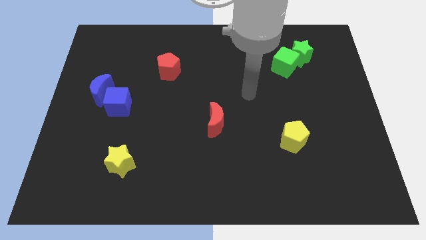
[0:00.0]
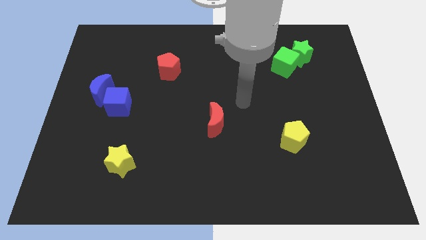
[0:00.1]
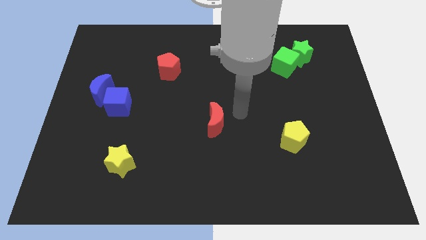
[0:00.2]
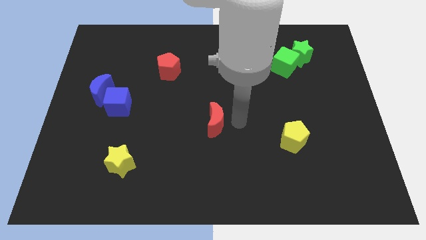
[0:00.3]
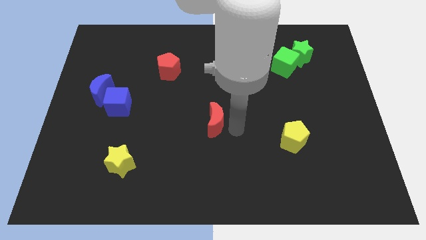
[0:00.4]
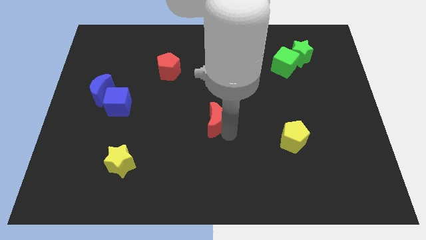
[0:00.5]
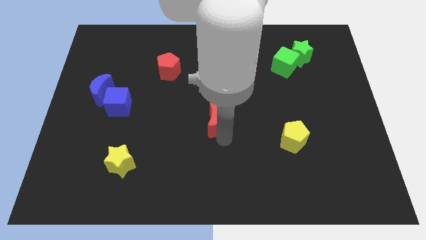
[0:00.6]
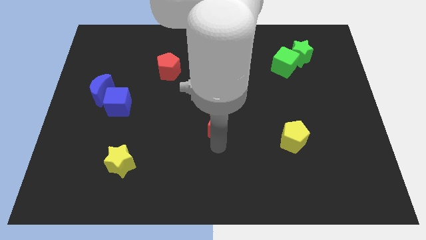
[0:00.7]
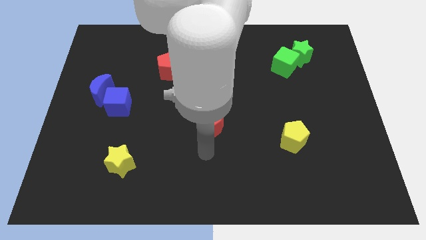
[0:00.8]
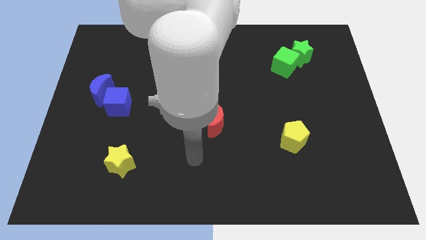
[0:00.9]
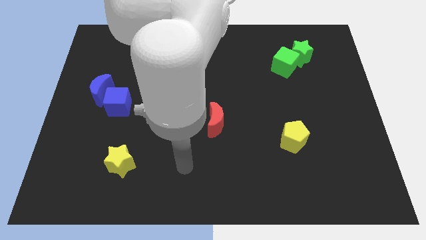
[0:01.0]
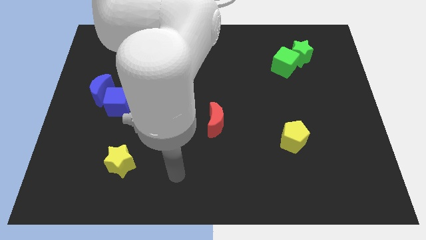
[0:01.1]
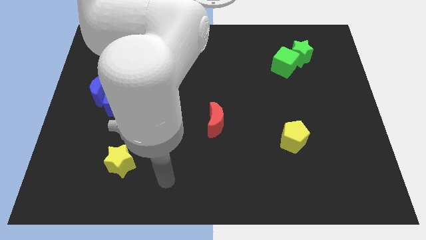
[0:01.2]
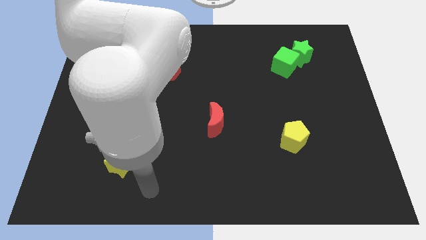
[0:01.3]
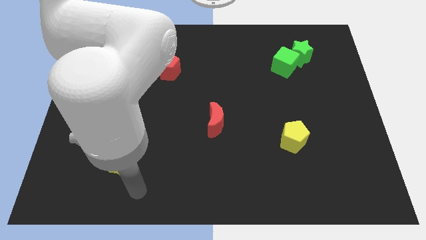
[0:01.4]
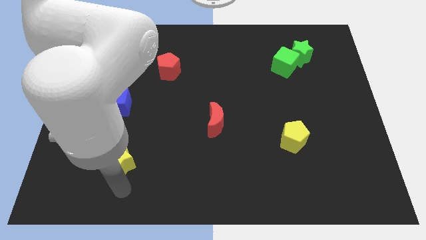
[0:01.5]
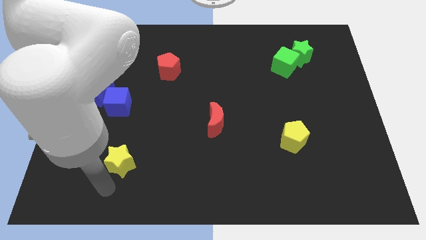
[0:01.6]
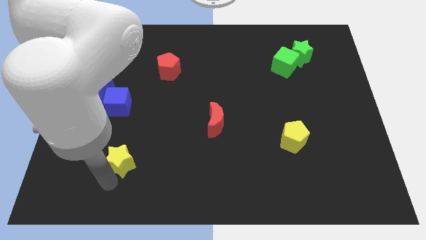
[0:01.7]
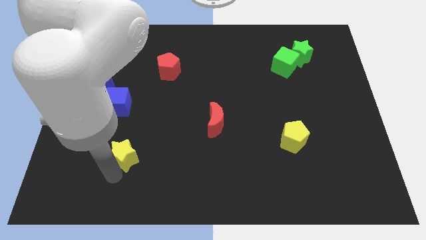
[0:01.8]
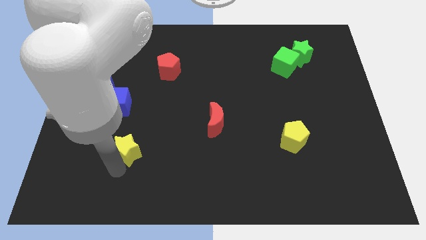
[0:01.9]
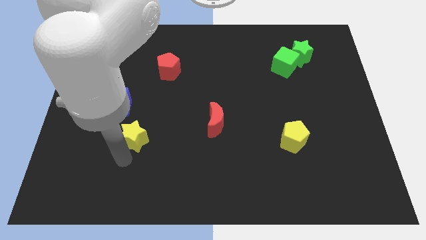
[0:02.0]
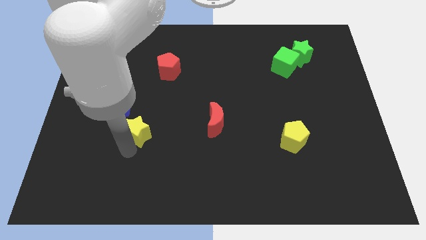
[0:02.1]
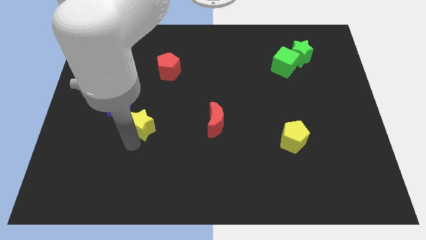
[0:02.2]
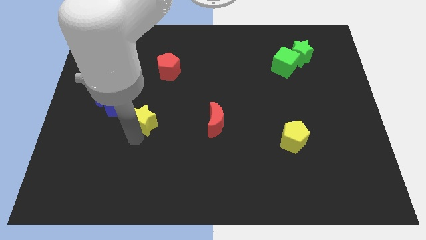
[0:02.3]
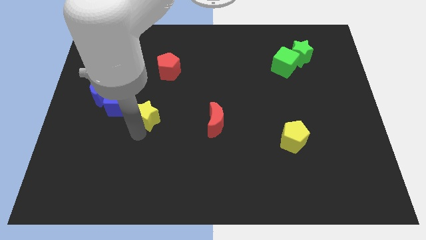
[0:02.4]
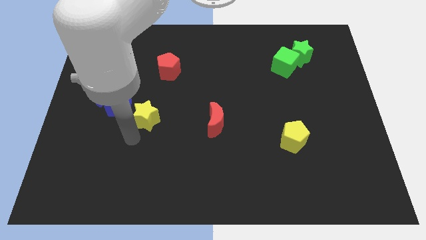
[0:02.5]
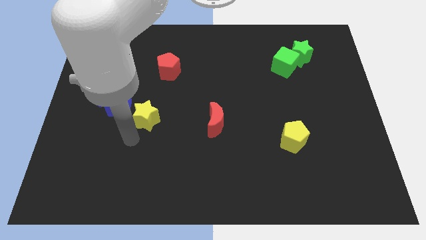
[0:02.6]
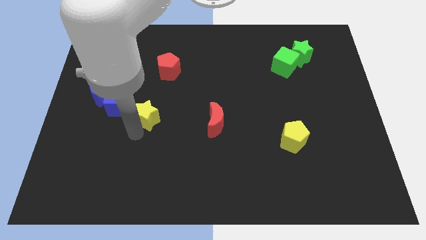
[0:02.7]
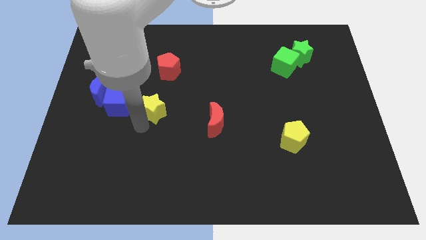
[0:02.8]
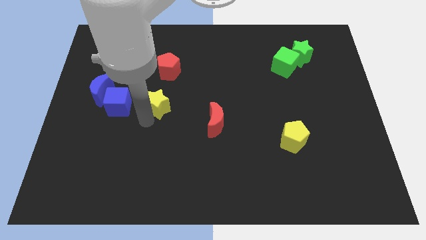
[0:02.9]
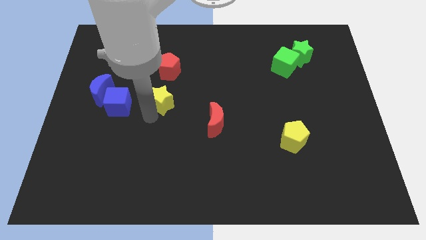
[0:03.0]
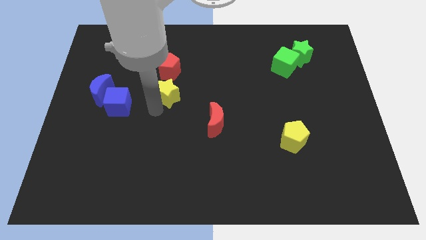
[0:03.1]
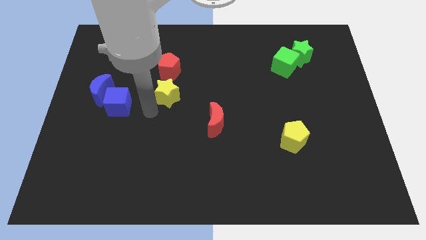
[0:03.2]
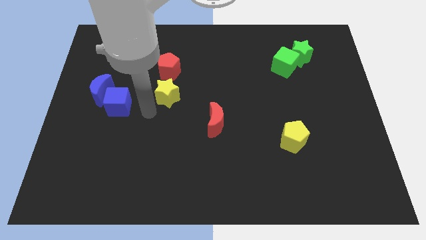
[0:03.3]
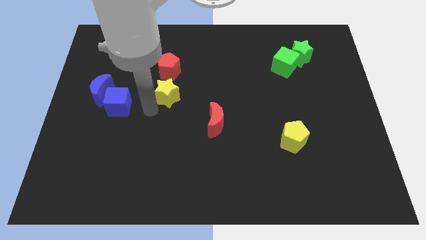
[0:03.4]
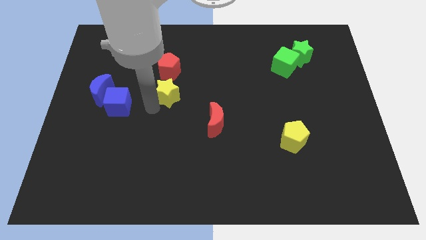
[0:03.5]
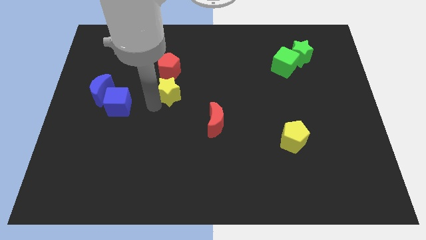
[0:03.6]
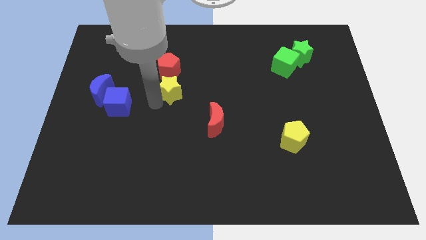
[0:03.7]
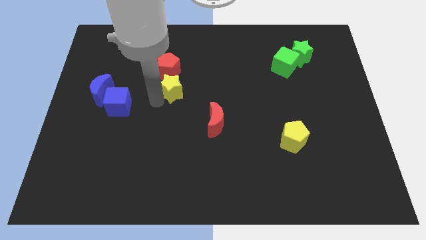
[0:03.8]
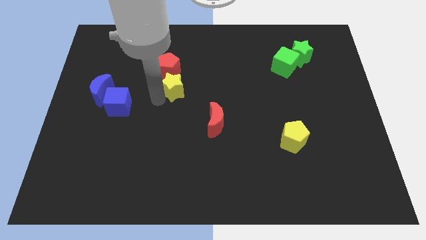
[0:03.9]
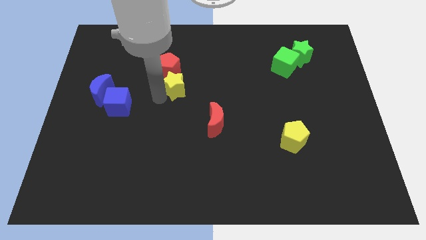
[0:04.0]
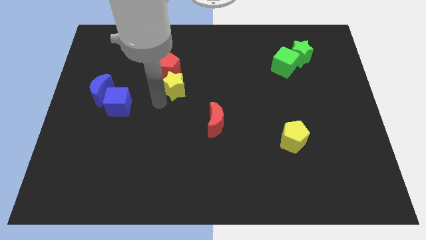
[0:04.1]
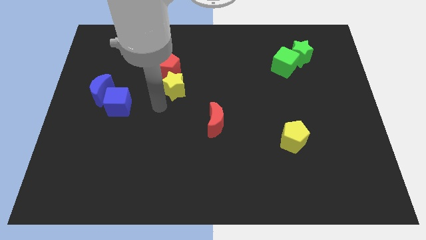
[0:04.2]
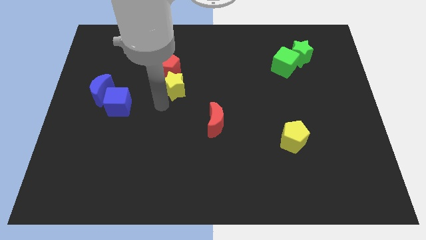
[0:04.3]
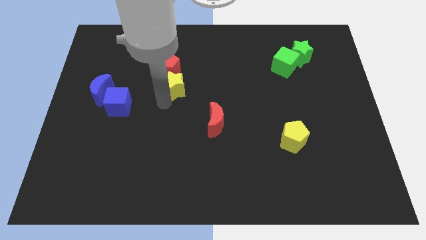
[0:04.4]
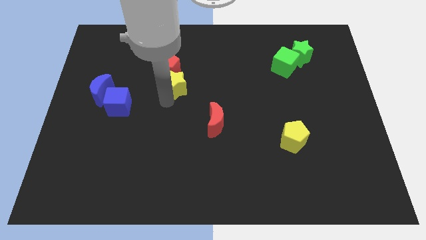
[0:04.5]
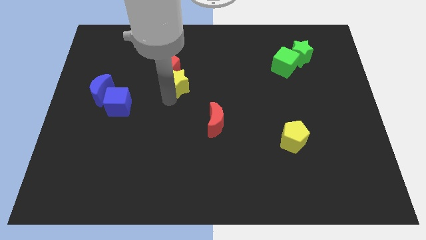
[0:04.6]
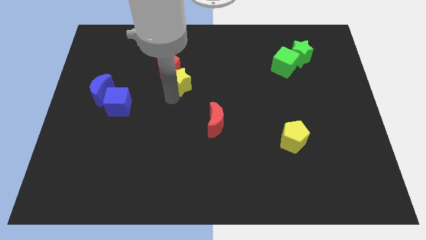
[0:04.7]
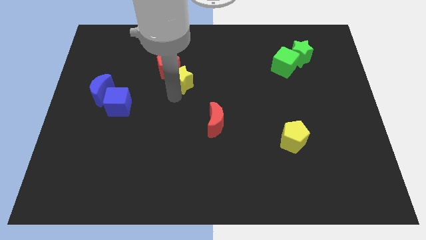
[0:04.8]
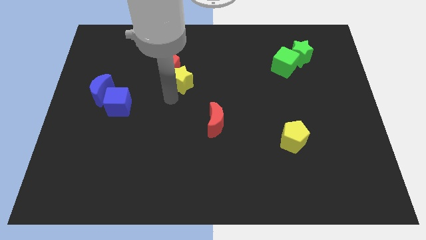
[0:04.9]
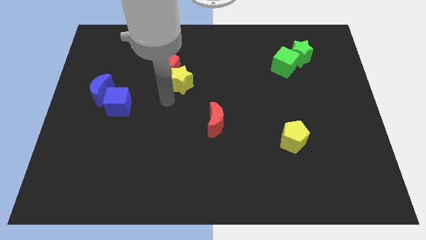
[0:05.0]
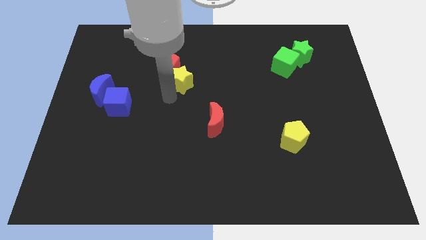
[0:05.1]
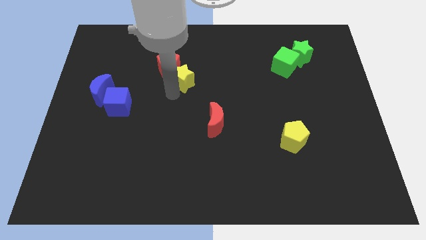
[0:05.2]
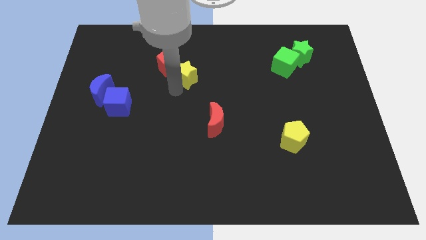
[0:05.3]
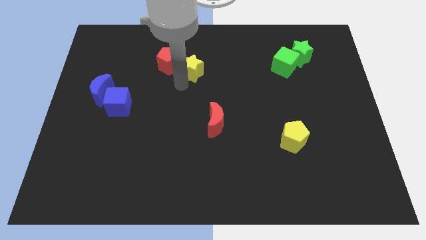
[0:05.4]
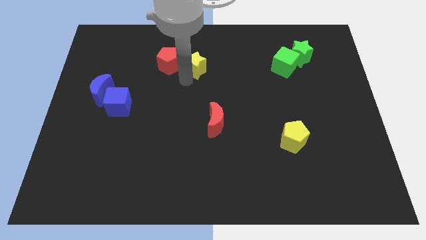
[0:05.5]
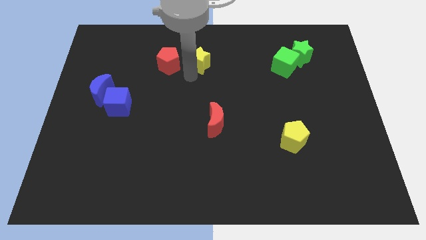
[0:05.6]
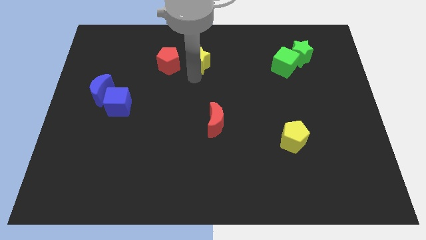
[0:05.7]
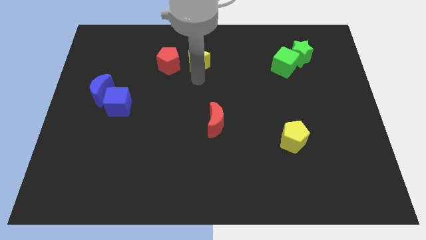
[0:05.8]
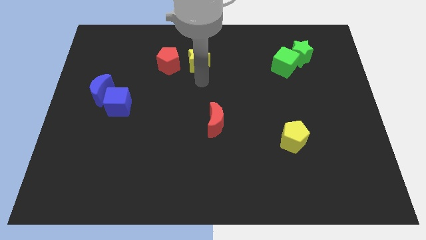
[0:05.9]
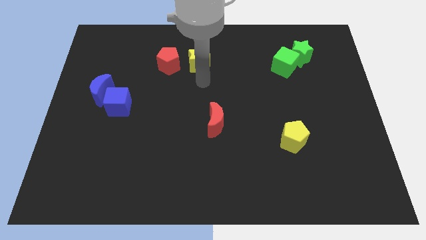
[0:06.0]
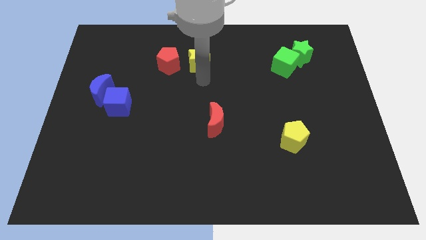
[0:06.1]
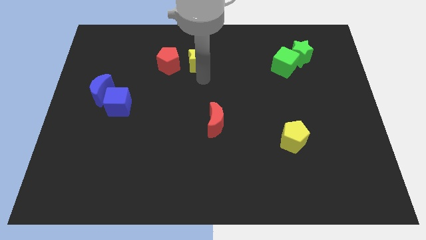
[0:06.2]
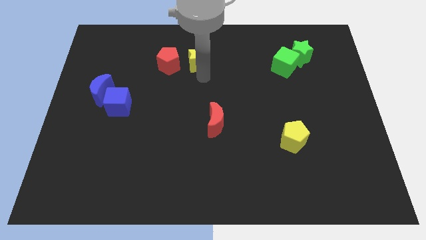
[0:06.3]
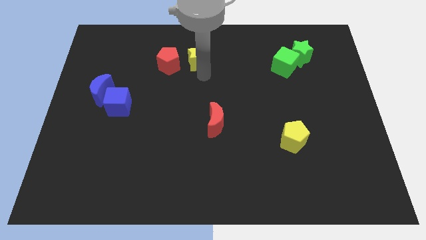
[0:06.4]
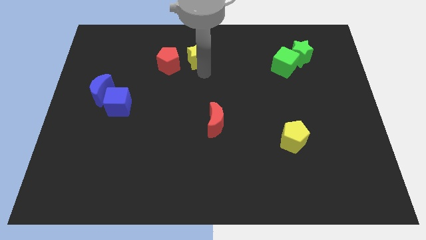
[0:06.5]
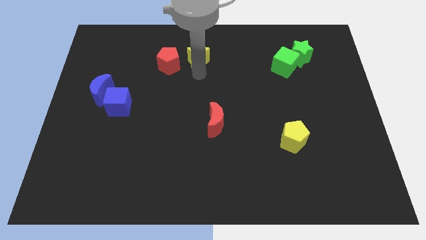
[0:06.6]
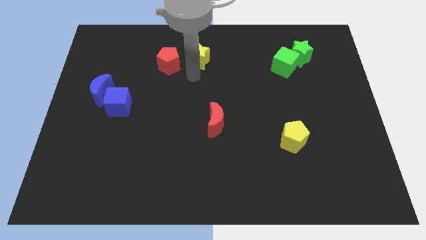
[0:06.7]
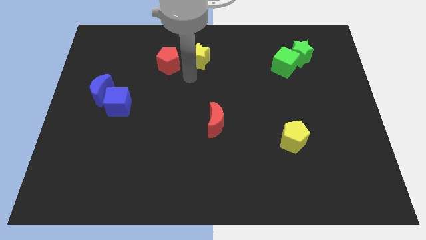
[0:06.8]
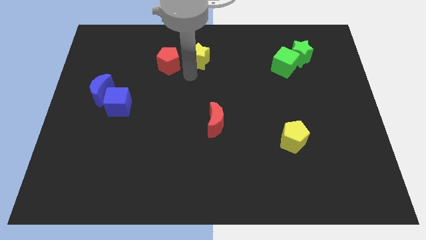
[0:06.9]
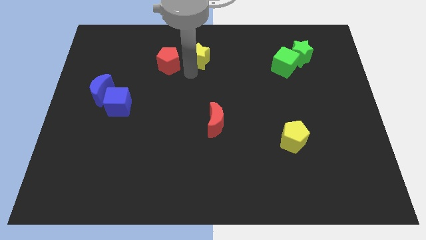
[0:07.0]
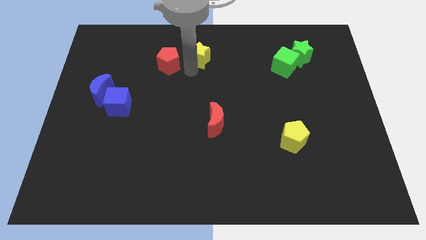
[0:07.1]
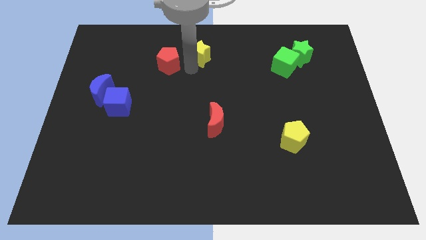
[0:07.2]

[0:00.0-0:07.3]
push the yellow star to the towards your base
